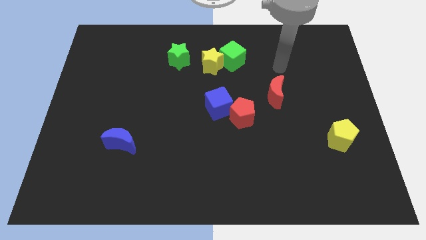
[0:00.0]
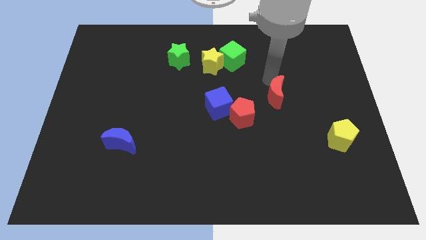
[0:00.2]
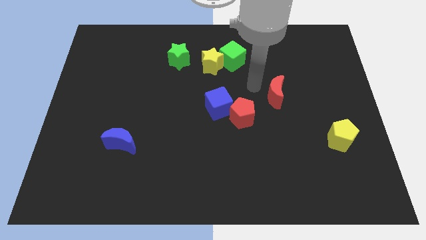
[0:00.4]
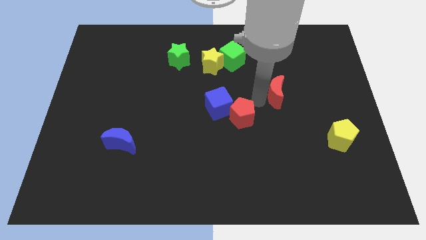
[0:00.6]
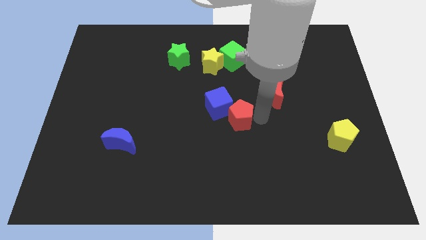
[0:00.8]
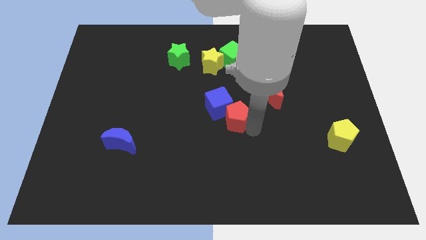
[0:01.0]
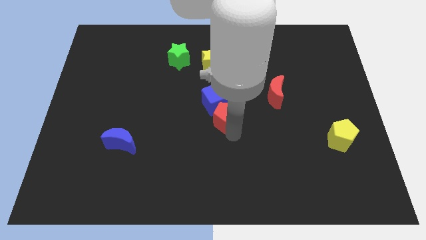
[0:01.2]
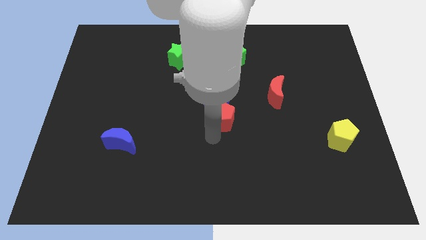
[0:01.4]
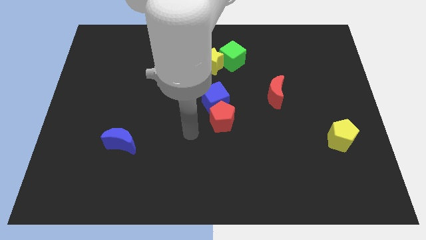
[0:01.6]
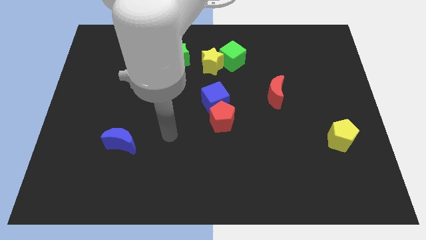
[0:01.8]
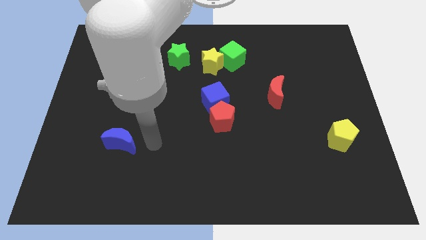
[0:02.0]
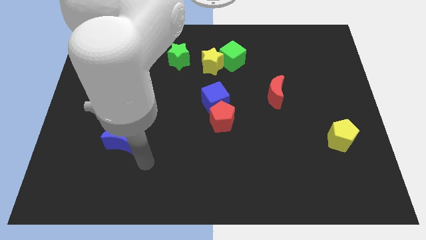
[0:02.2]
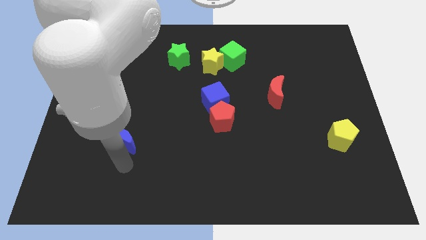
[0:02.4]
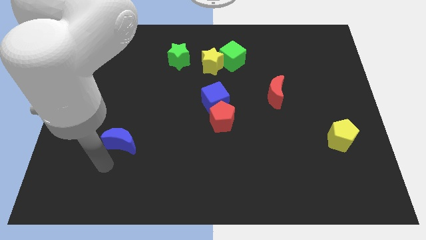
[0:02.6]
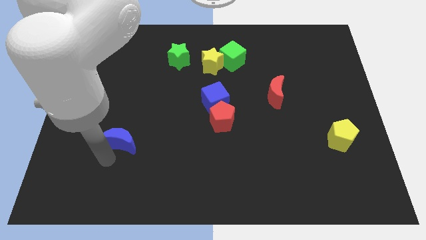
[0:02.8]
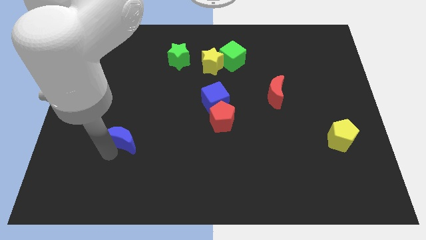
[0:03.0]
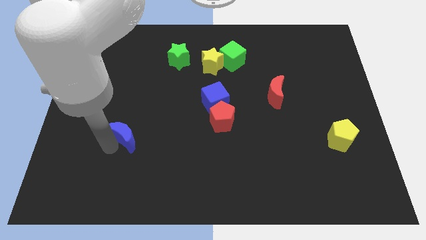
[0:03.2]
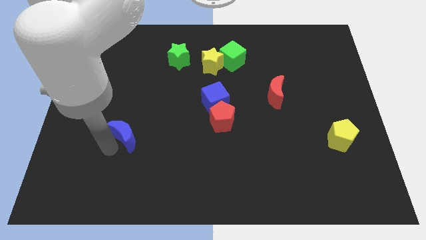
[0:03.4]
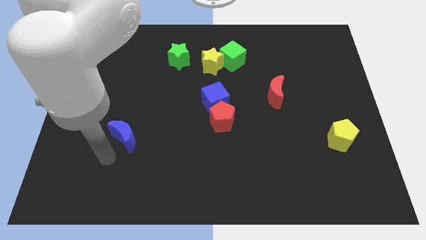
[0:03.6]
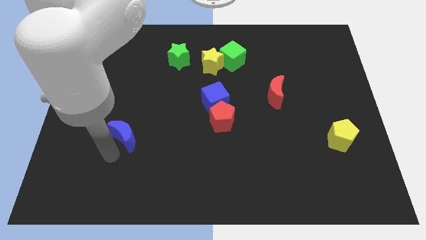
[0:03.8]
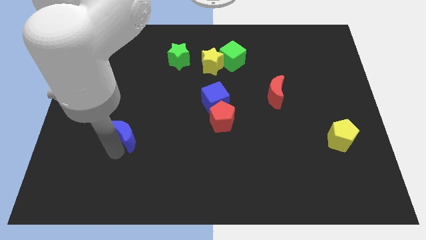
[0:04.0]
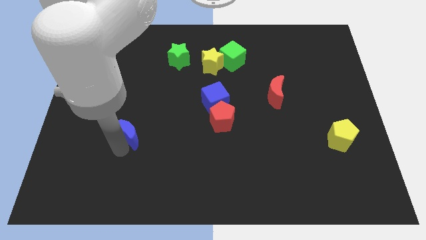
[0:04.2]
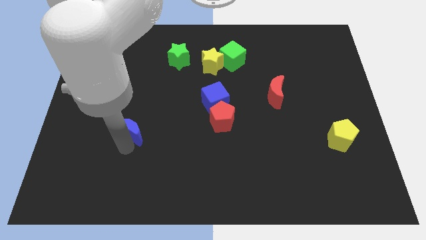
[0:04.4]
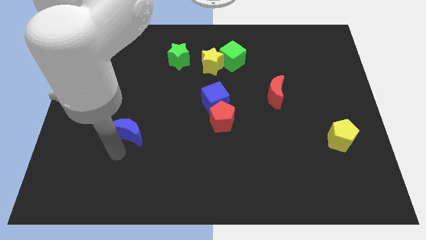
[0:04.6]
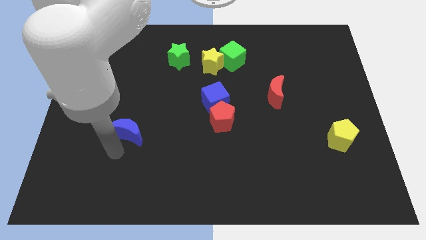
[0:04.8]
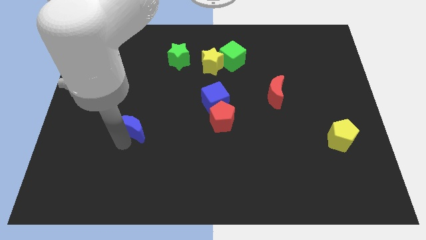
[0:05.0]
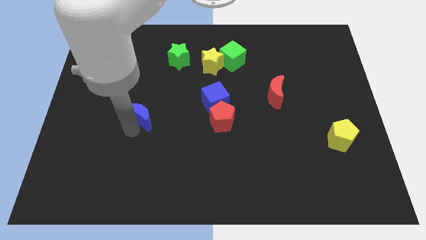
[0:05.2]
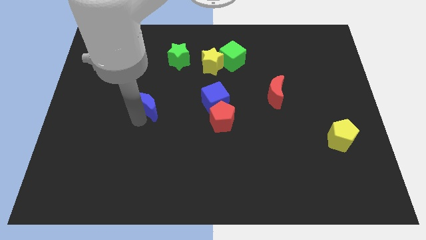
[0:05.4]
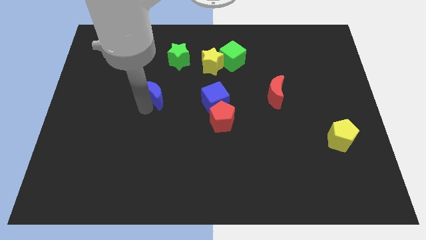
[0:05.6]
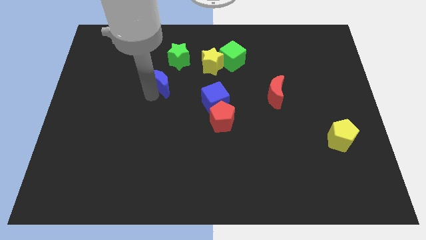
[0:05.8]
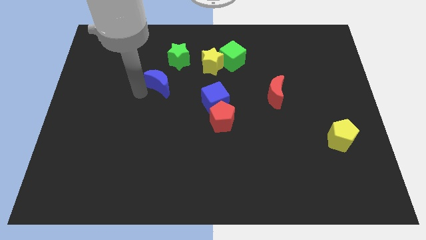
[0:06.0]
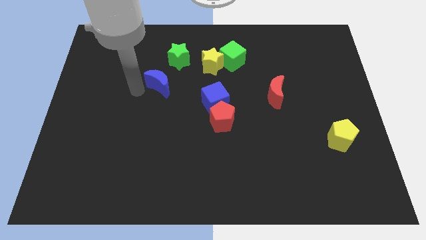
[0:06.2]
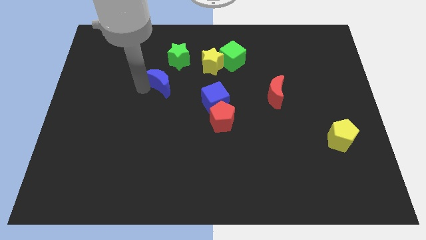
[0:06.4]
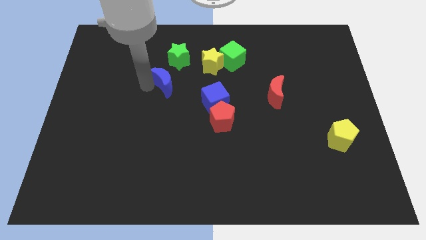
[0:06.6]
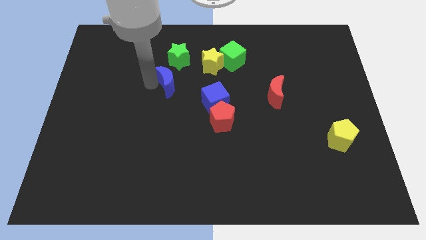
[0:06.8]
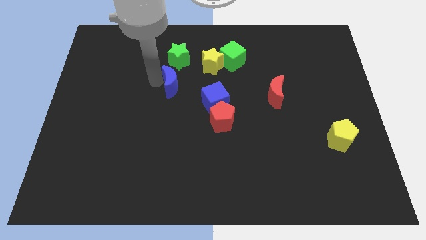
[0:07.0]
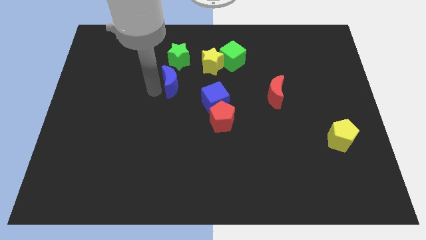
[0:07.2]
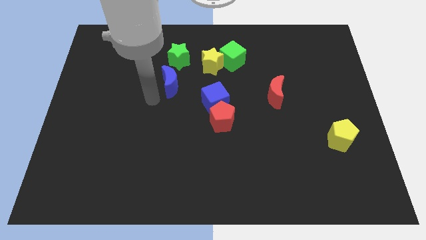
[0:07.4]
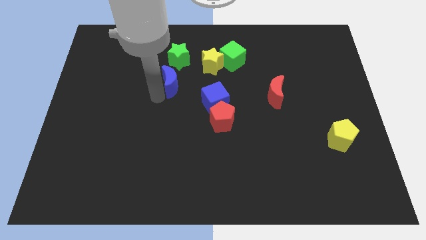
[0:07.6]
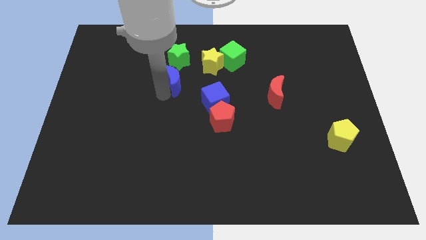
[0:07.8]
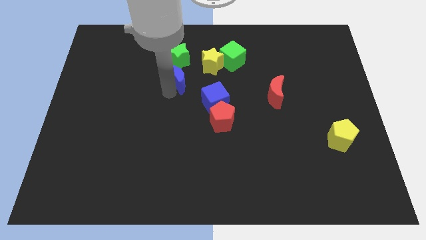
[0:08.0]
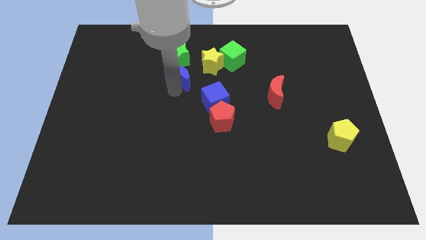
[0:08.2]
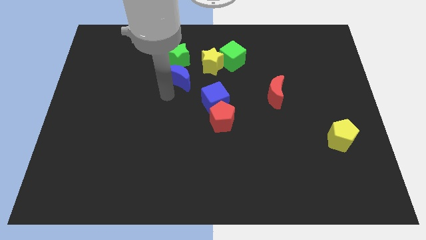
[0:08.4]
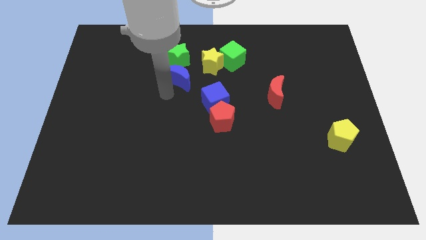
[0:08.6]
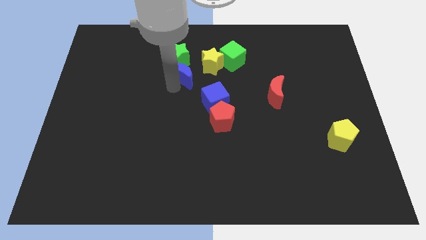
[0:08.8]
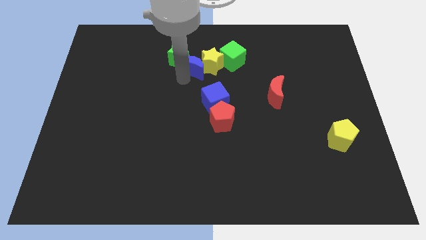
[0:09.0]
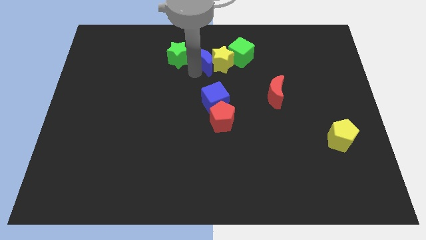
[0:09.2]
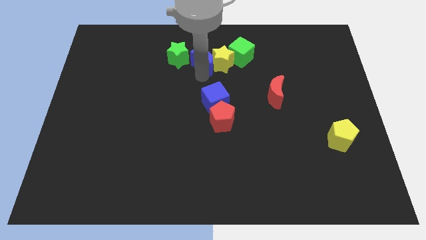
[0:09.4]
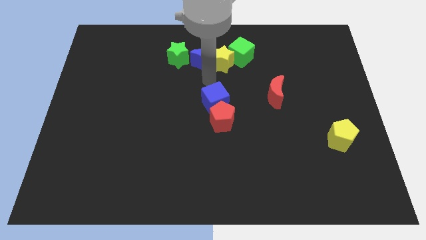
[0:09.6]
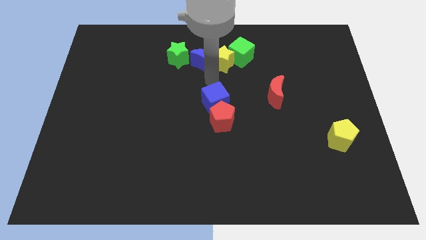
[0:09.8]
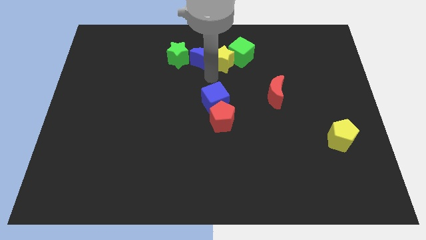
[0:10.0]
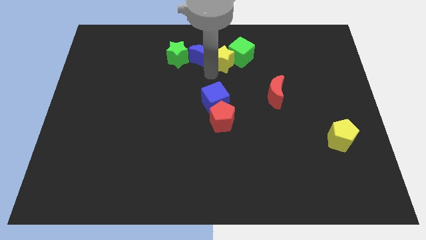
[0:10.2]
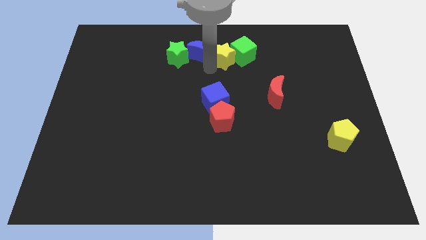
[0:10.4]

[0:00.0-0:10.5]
push the blue moon to the top

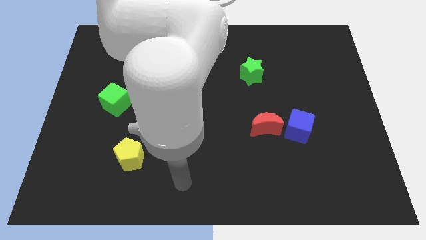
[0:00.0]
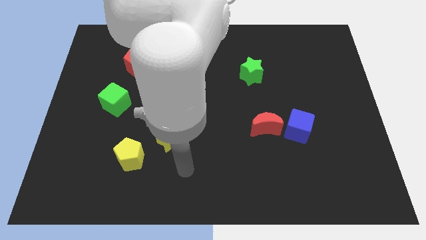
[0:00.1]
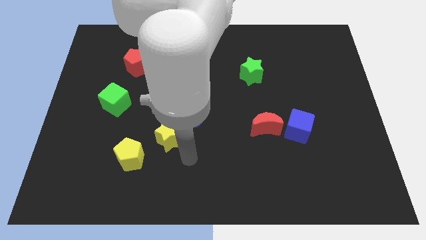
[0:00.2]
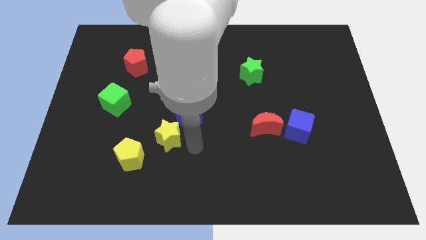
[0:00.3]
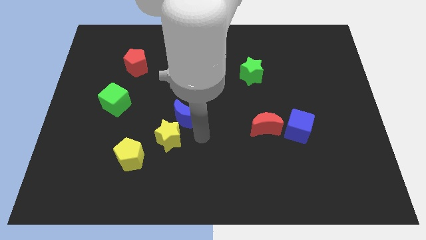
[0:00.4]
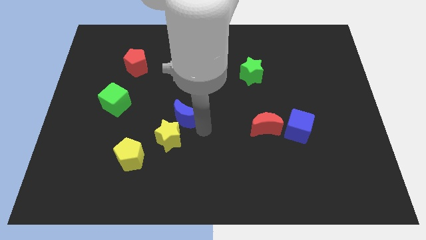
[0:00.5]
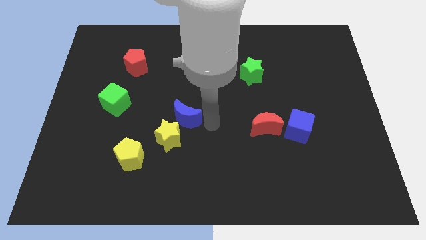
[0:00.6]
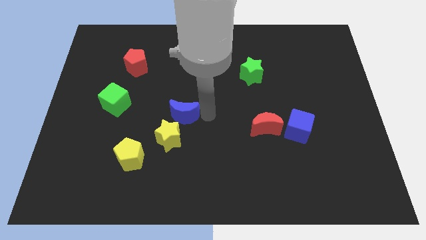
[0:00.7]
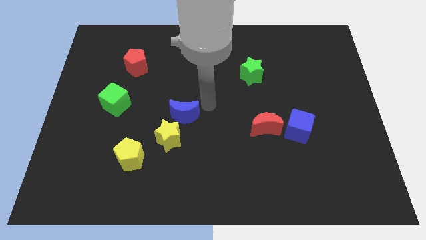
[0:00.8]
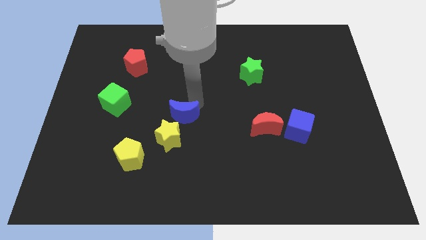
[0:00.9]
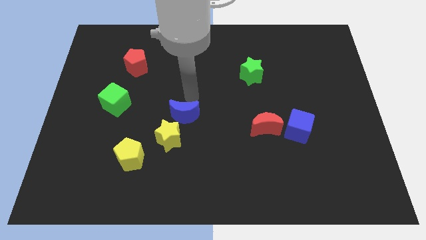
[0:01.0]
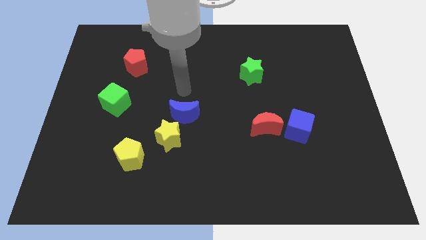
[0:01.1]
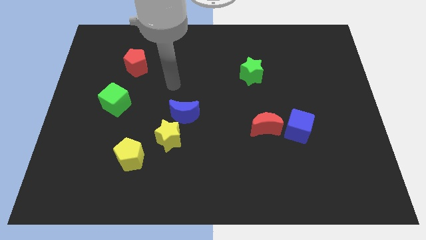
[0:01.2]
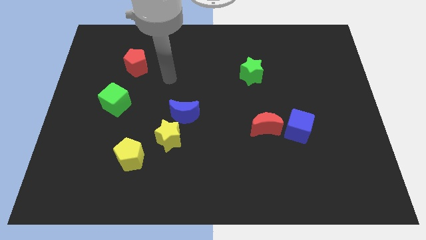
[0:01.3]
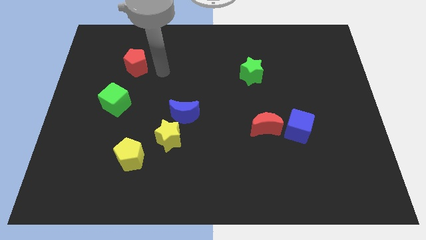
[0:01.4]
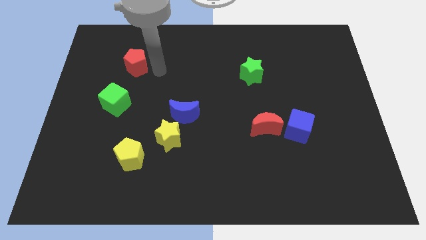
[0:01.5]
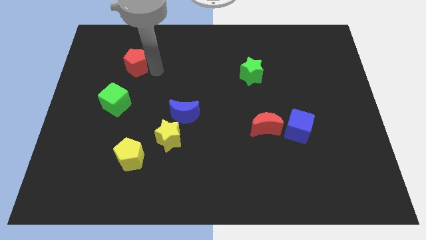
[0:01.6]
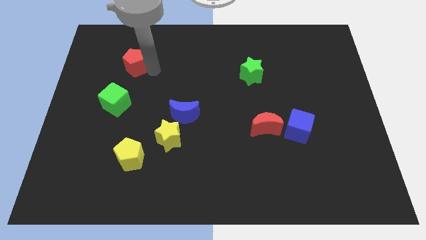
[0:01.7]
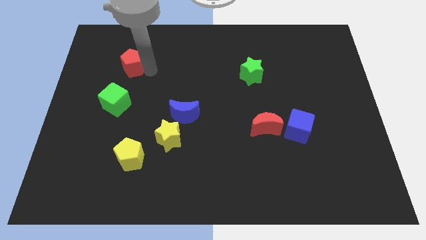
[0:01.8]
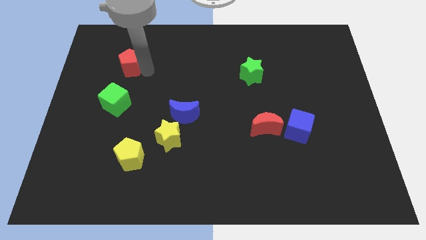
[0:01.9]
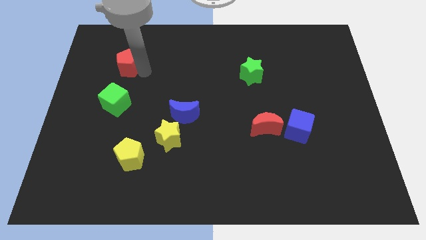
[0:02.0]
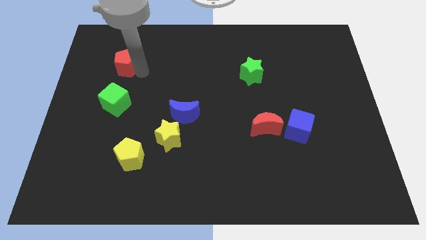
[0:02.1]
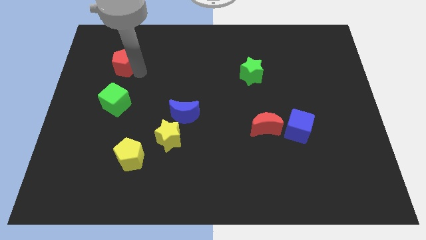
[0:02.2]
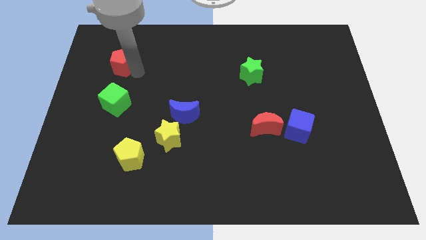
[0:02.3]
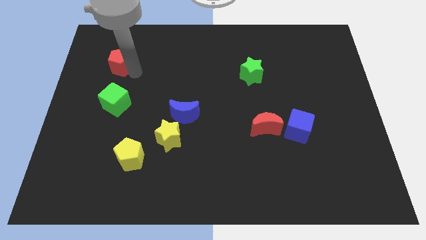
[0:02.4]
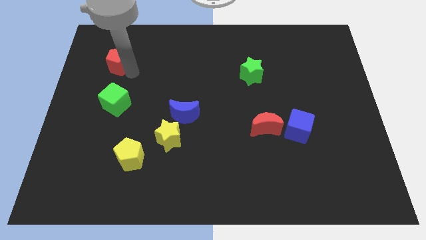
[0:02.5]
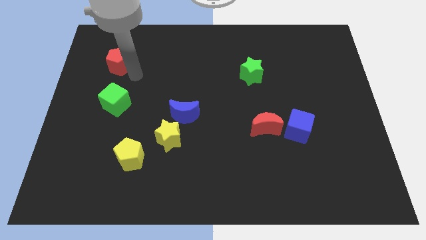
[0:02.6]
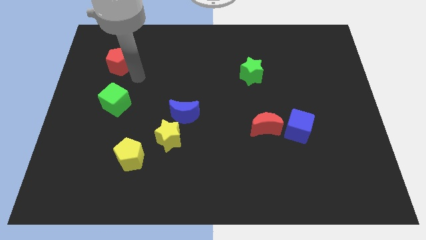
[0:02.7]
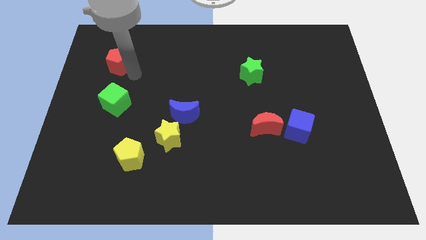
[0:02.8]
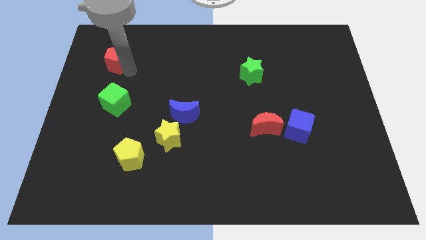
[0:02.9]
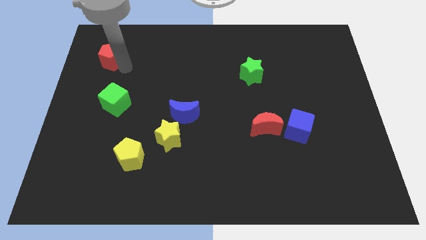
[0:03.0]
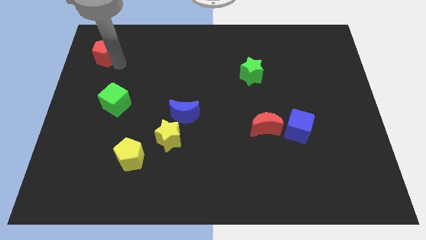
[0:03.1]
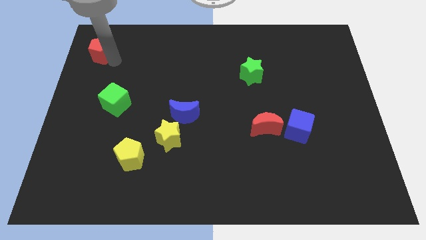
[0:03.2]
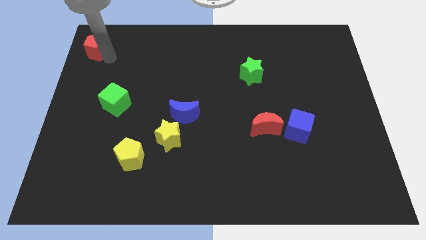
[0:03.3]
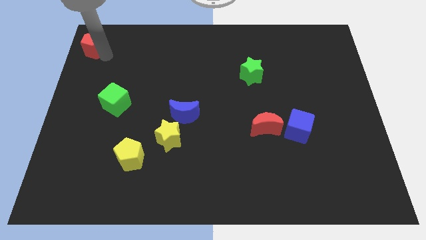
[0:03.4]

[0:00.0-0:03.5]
move the red pentagon to the upper left corner
